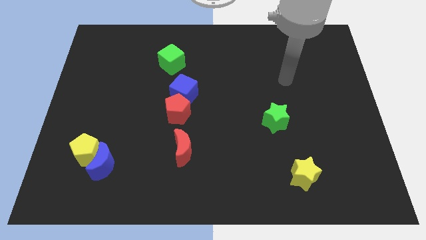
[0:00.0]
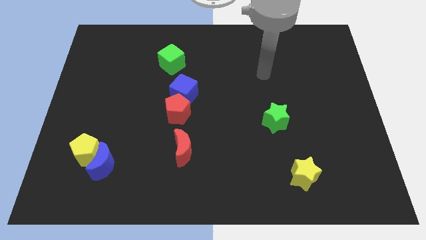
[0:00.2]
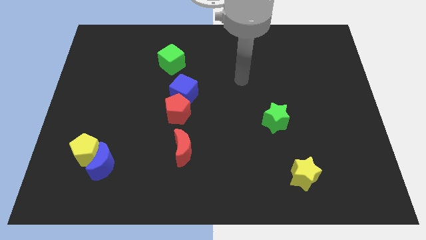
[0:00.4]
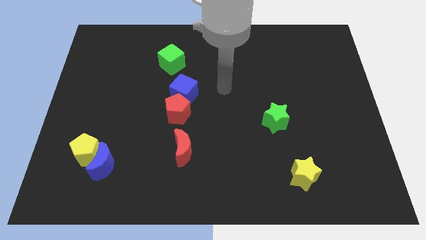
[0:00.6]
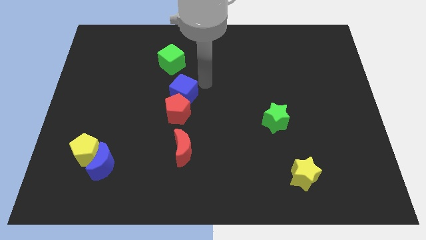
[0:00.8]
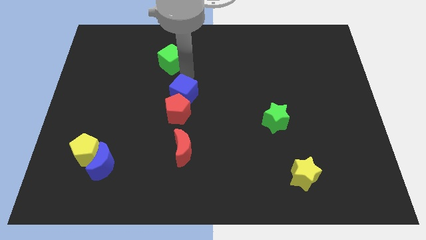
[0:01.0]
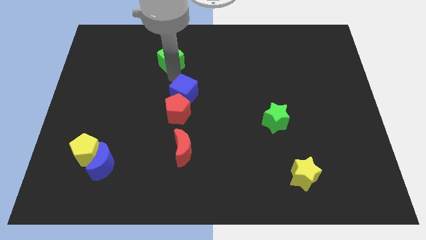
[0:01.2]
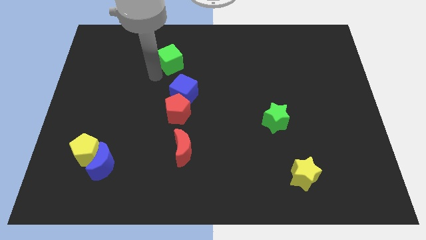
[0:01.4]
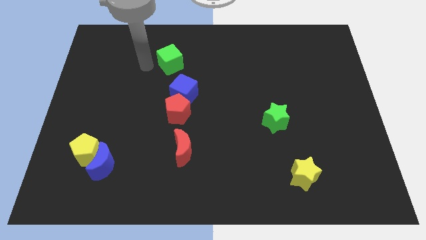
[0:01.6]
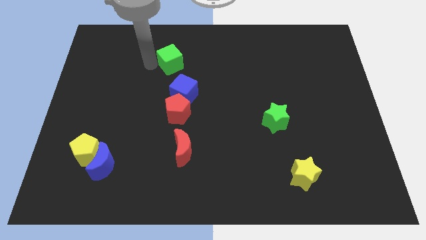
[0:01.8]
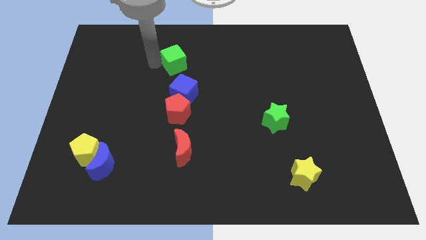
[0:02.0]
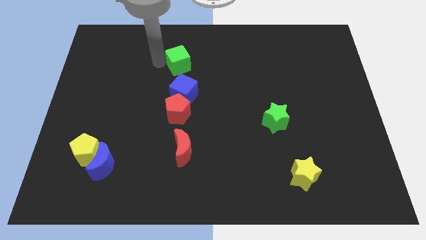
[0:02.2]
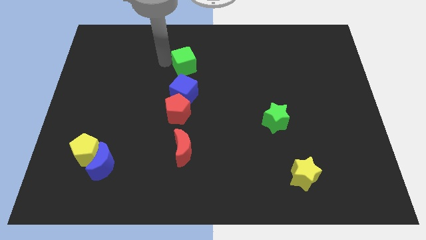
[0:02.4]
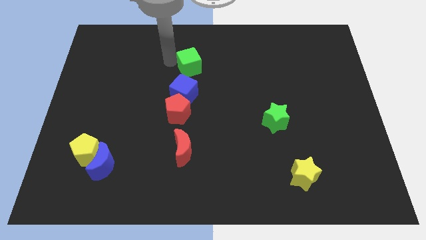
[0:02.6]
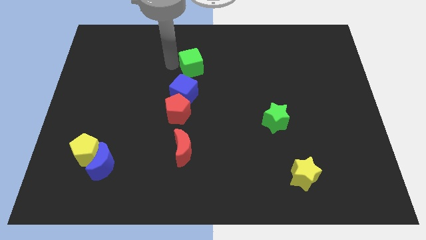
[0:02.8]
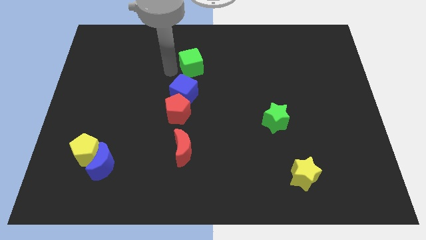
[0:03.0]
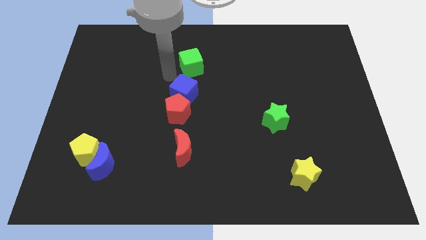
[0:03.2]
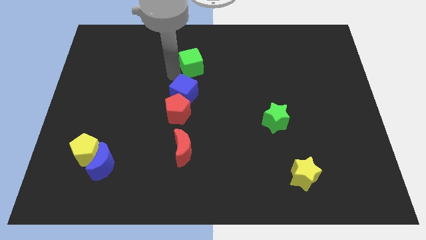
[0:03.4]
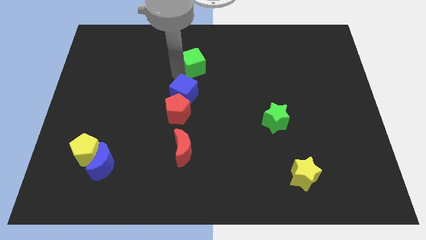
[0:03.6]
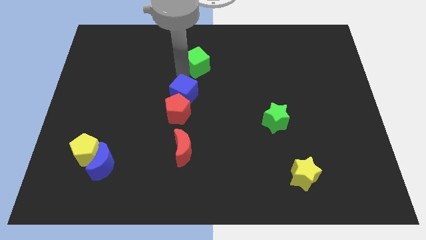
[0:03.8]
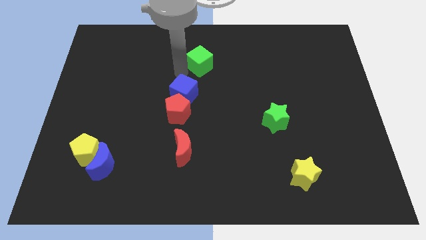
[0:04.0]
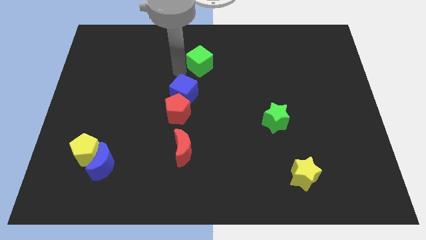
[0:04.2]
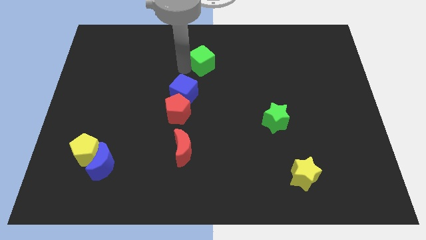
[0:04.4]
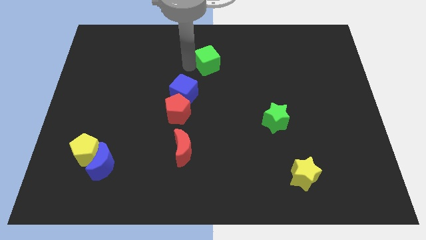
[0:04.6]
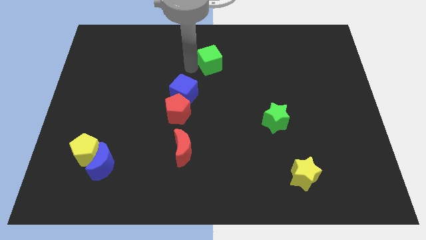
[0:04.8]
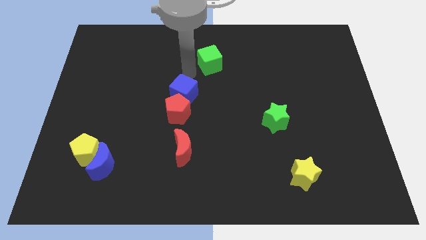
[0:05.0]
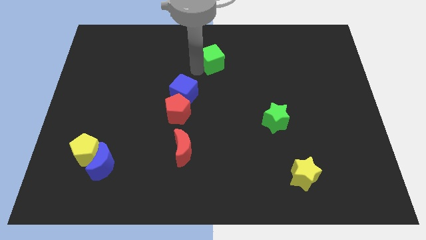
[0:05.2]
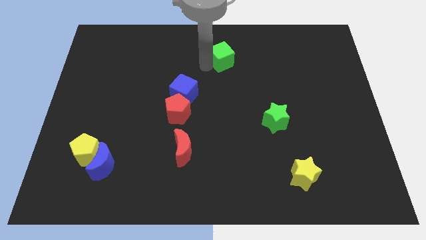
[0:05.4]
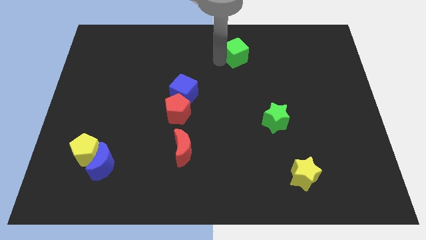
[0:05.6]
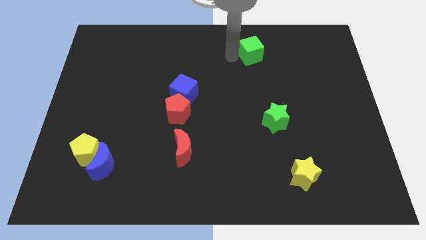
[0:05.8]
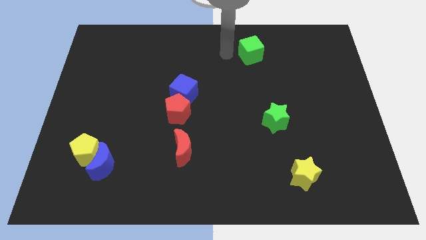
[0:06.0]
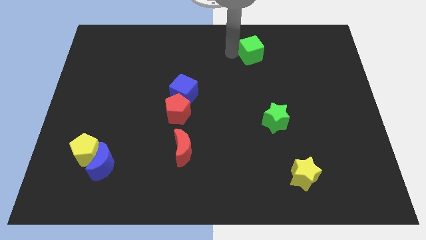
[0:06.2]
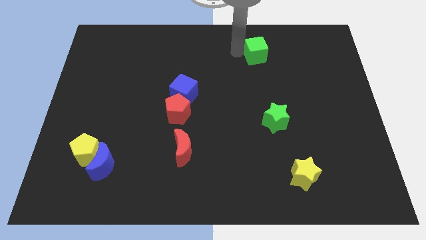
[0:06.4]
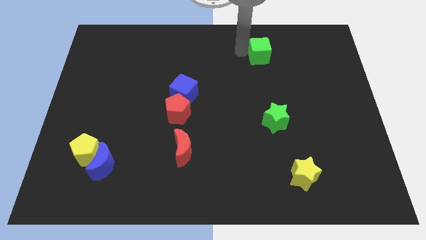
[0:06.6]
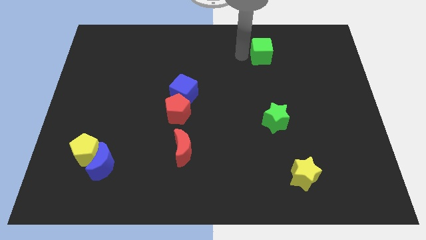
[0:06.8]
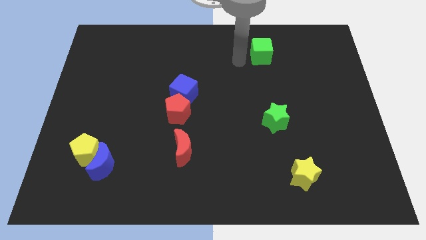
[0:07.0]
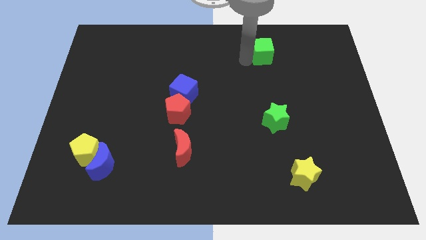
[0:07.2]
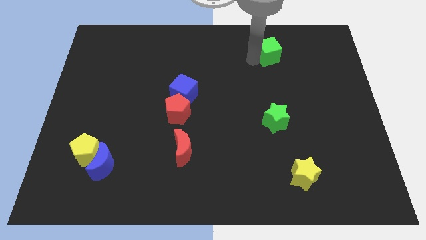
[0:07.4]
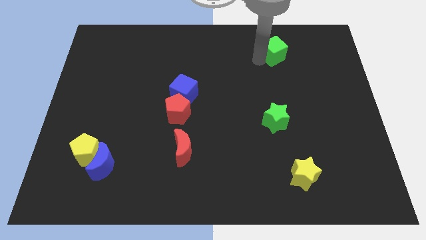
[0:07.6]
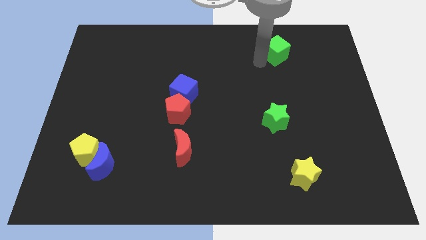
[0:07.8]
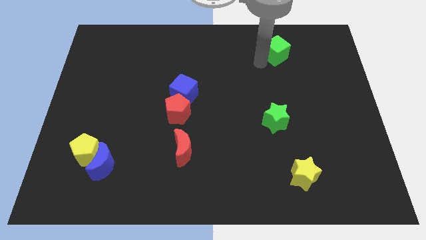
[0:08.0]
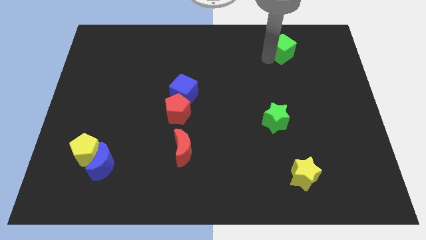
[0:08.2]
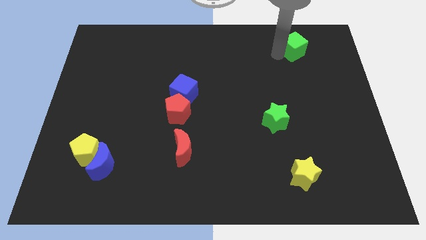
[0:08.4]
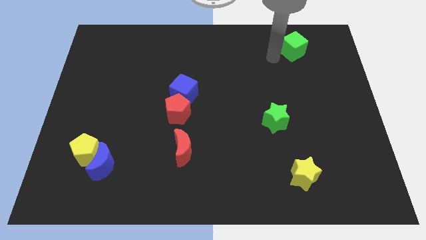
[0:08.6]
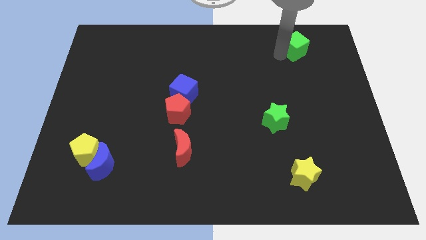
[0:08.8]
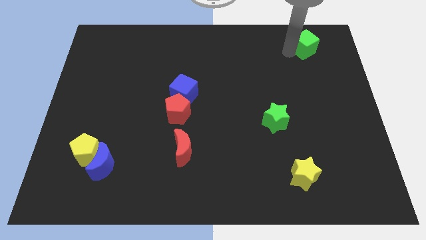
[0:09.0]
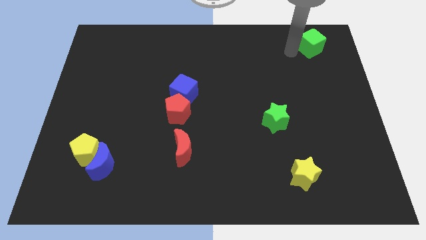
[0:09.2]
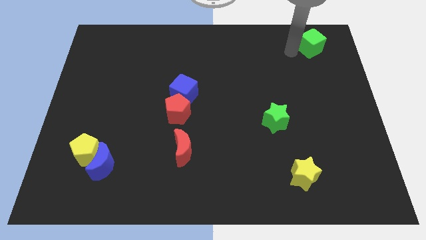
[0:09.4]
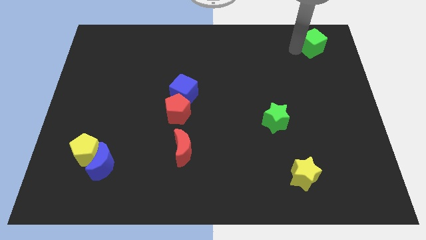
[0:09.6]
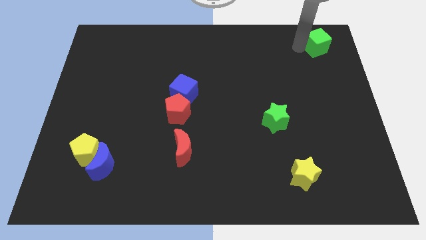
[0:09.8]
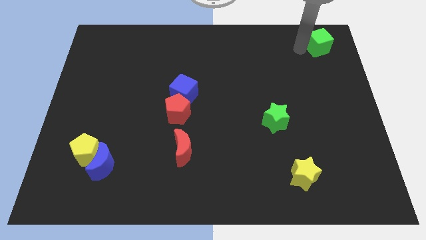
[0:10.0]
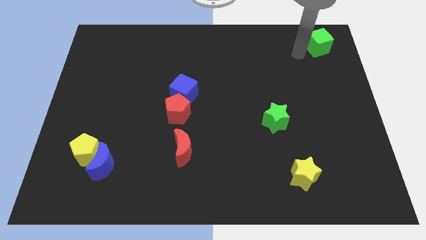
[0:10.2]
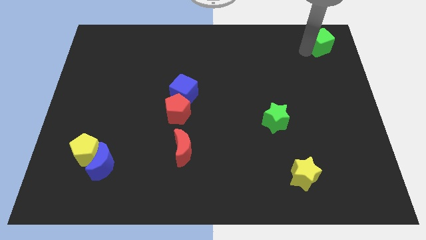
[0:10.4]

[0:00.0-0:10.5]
slide the green cube to the top right of the board

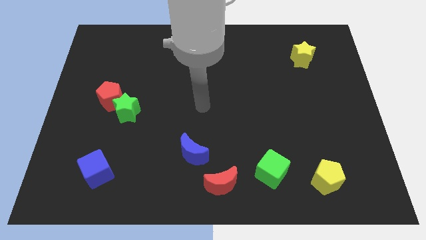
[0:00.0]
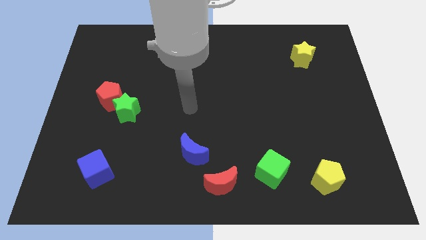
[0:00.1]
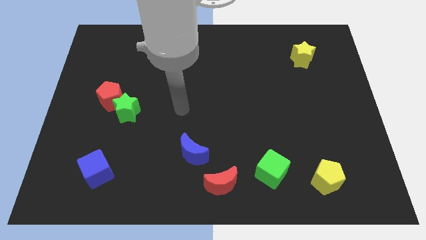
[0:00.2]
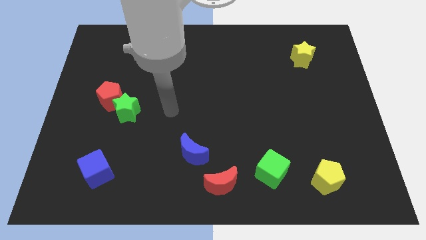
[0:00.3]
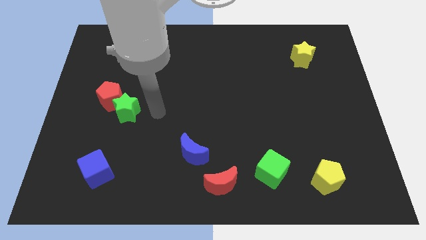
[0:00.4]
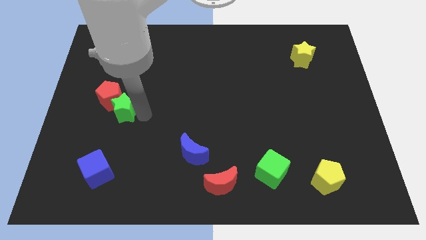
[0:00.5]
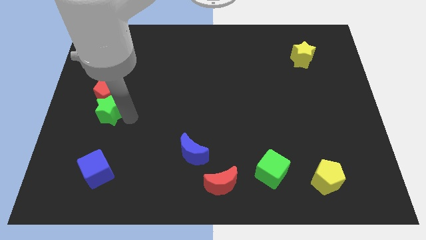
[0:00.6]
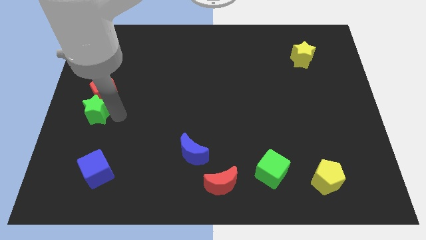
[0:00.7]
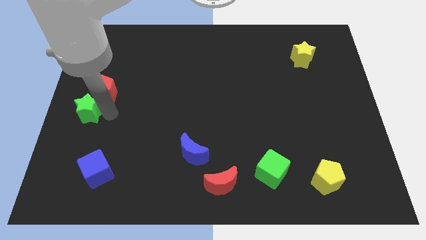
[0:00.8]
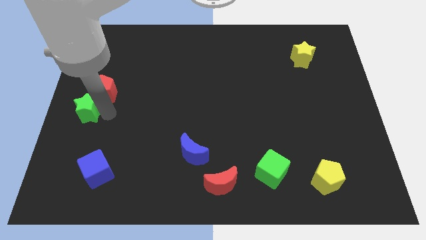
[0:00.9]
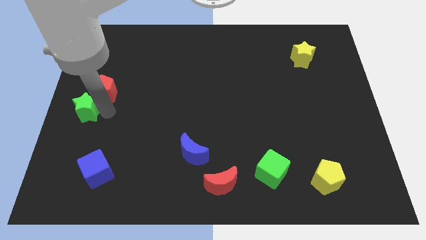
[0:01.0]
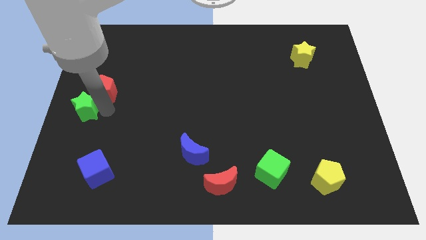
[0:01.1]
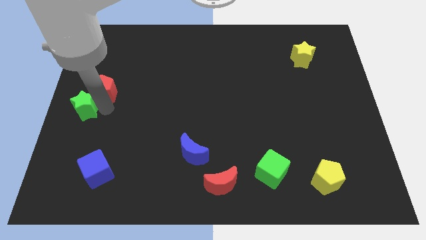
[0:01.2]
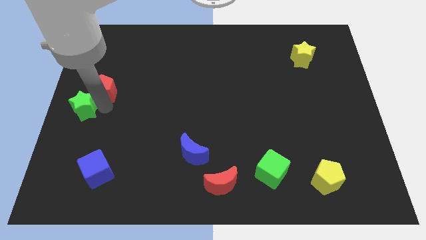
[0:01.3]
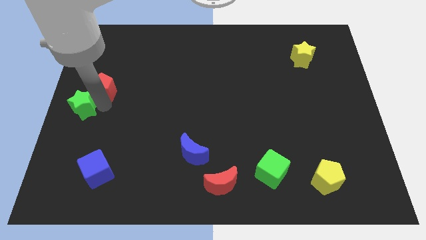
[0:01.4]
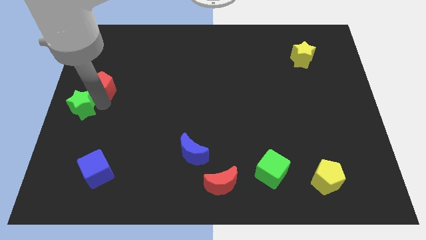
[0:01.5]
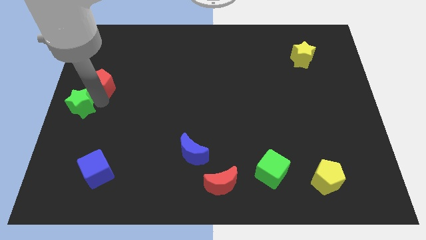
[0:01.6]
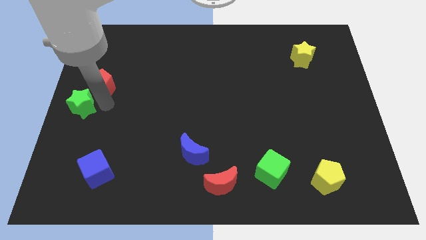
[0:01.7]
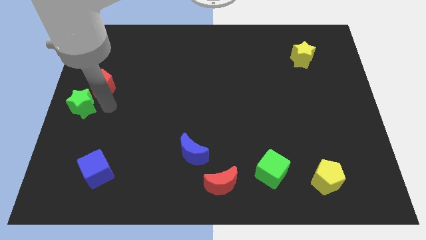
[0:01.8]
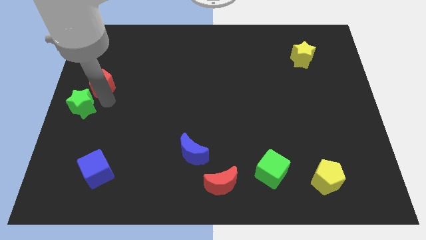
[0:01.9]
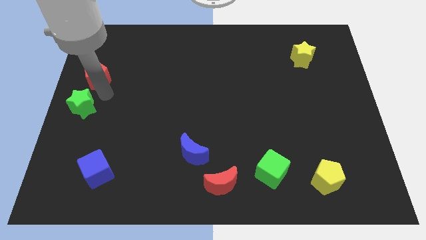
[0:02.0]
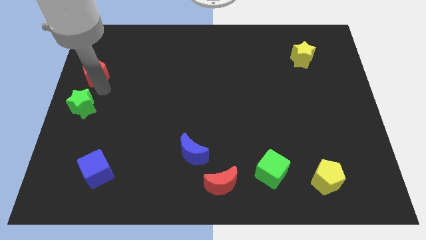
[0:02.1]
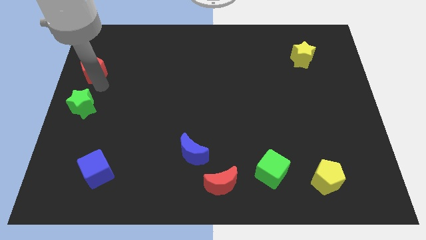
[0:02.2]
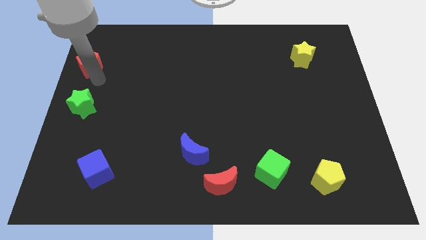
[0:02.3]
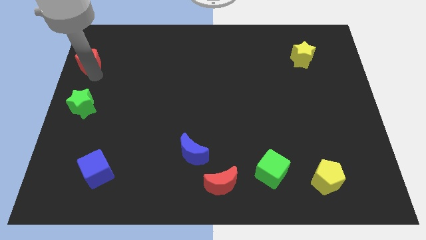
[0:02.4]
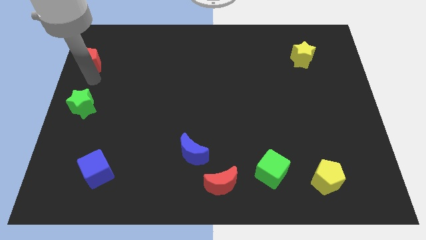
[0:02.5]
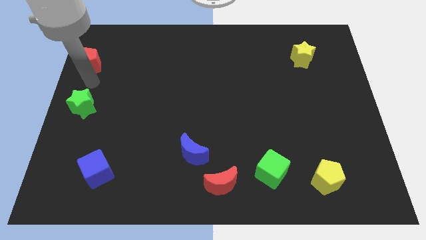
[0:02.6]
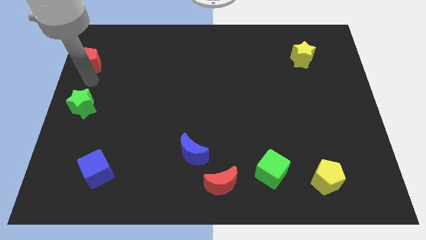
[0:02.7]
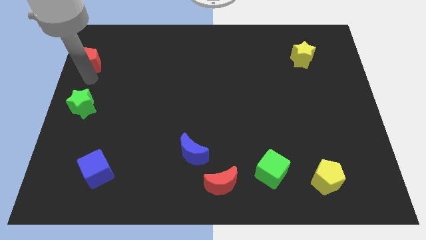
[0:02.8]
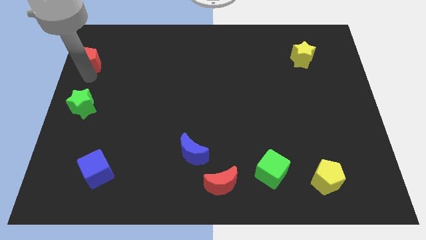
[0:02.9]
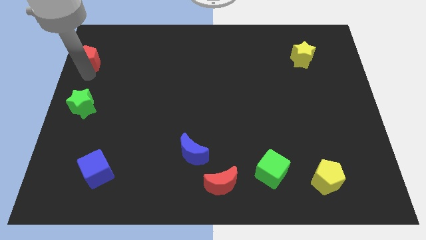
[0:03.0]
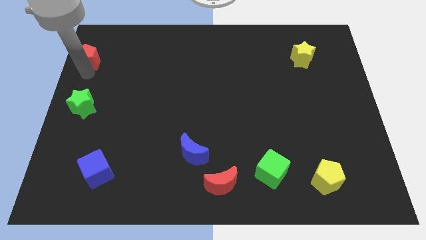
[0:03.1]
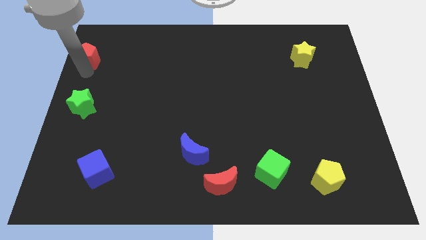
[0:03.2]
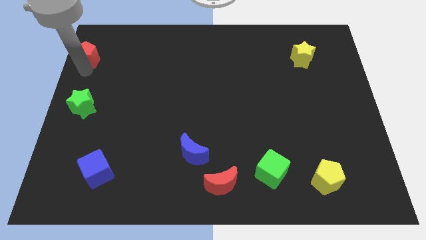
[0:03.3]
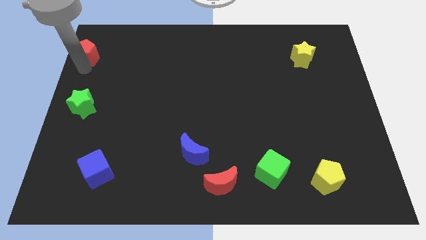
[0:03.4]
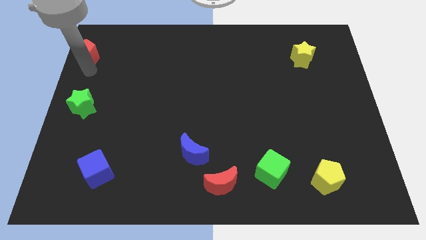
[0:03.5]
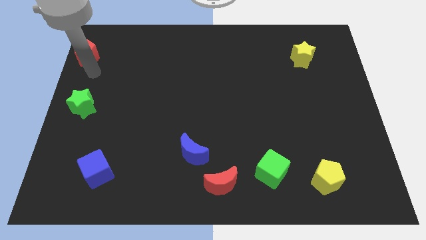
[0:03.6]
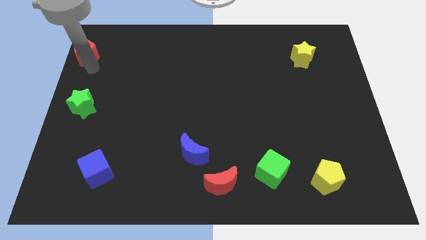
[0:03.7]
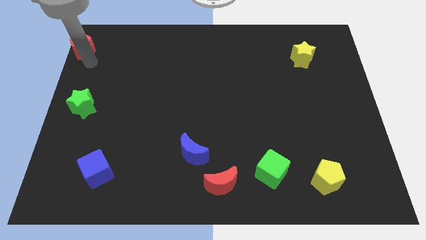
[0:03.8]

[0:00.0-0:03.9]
slide the red pentagon to the upper left corner
